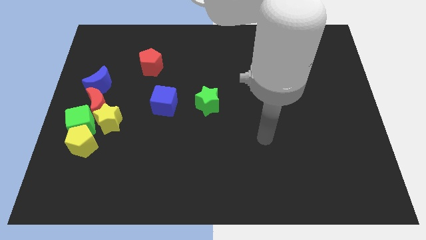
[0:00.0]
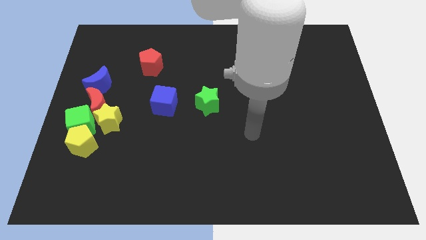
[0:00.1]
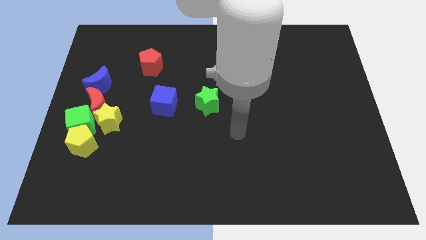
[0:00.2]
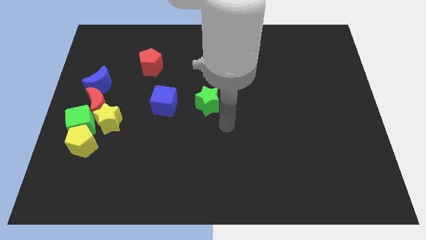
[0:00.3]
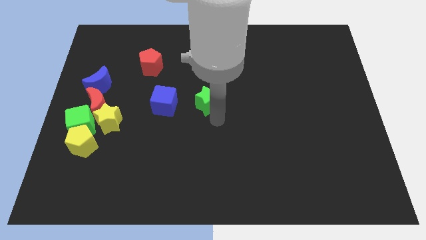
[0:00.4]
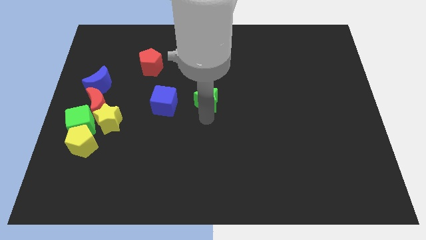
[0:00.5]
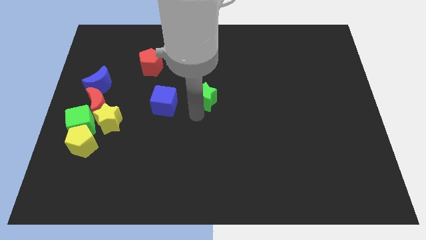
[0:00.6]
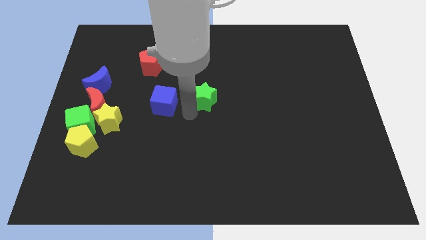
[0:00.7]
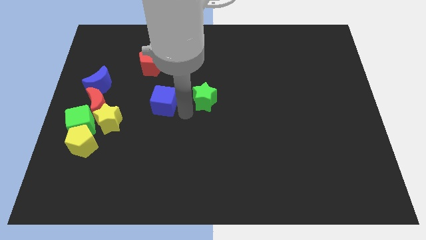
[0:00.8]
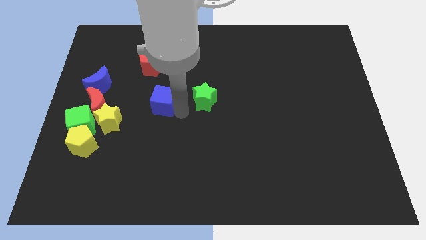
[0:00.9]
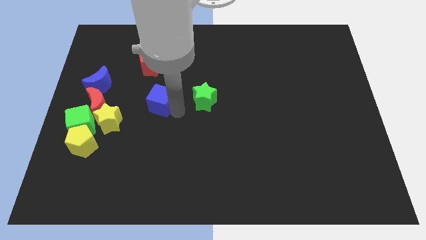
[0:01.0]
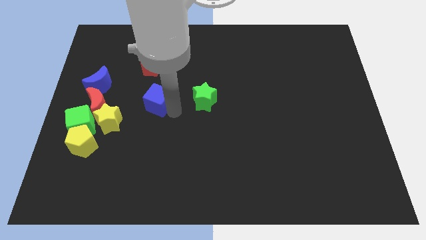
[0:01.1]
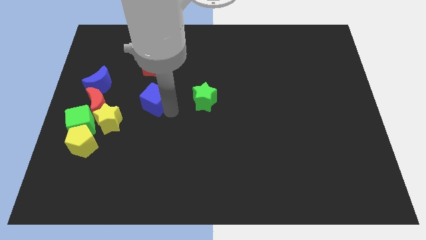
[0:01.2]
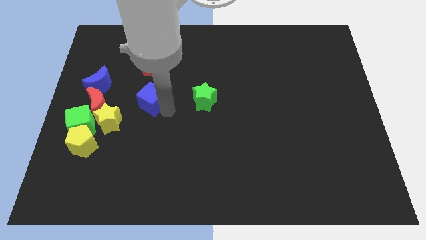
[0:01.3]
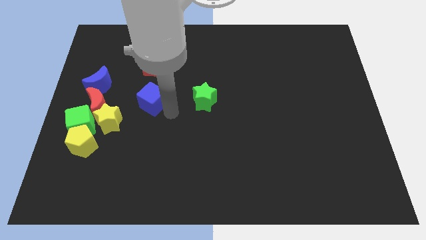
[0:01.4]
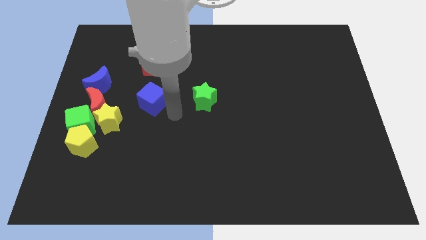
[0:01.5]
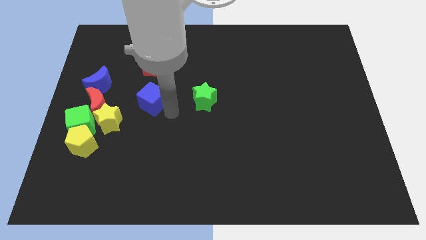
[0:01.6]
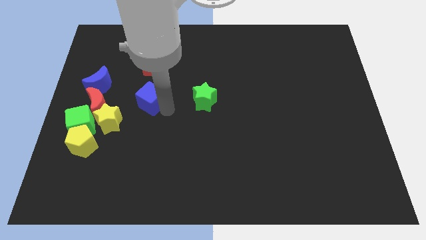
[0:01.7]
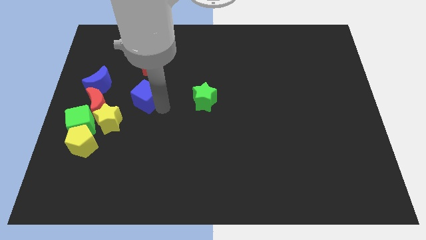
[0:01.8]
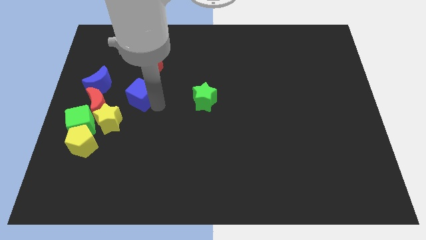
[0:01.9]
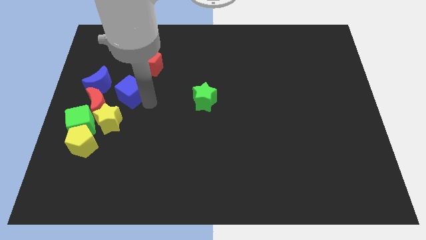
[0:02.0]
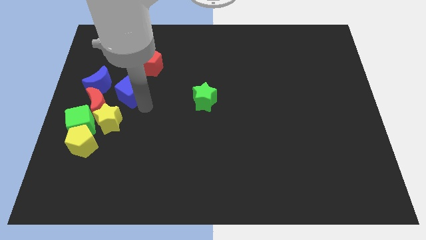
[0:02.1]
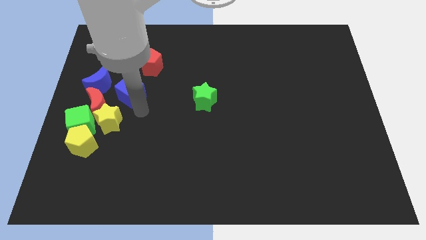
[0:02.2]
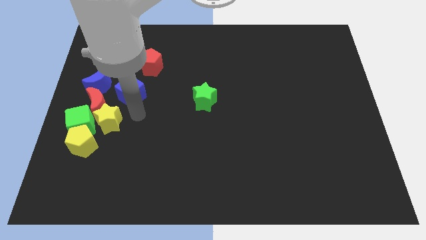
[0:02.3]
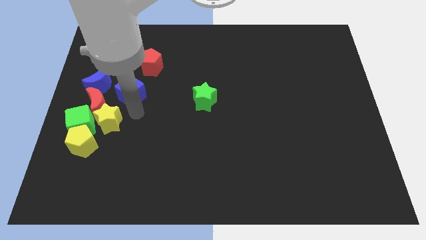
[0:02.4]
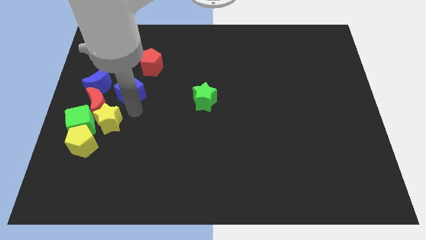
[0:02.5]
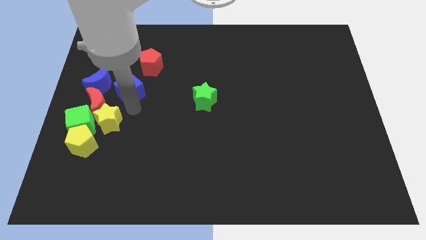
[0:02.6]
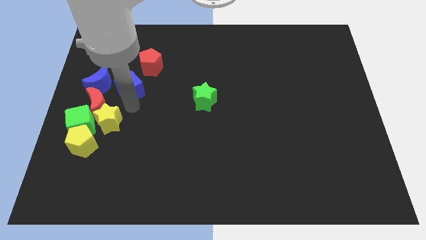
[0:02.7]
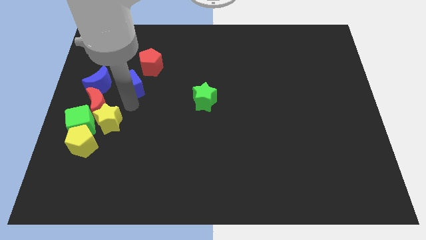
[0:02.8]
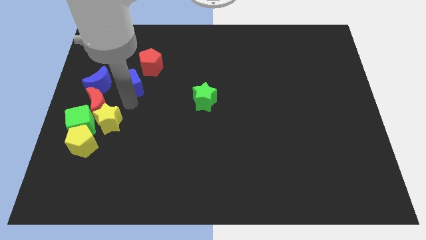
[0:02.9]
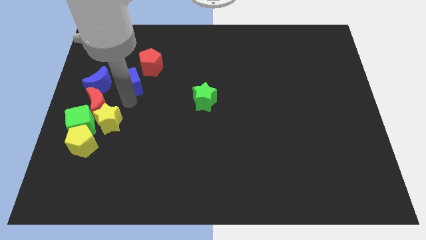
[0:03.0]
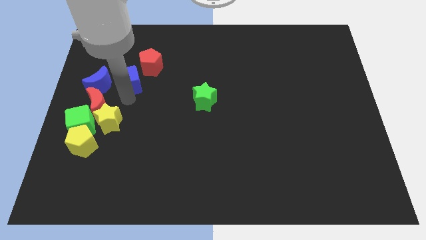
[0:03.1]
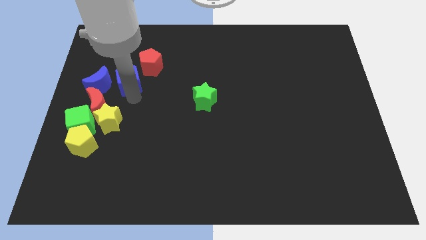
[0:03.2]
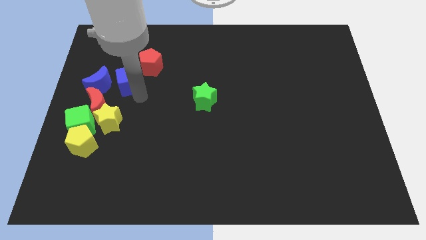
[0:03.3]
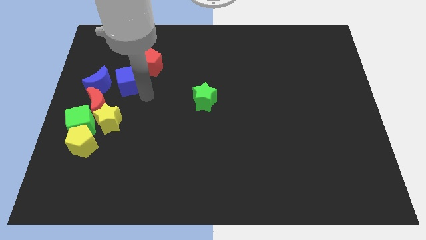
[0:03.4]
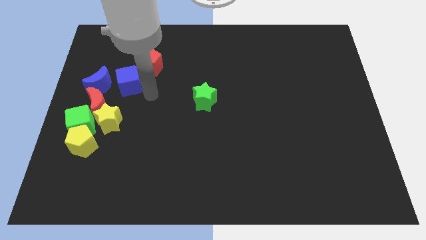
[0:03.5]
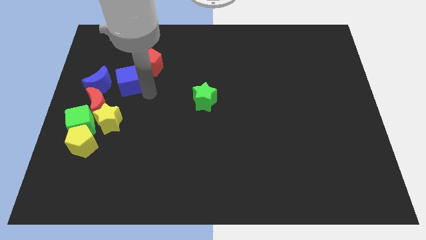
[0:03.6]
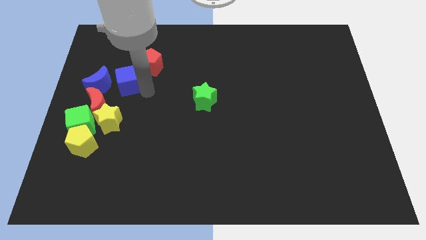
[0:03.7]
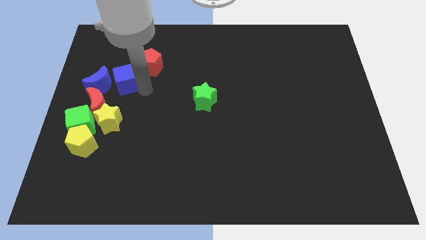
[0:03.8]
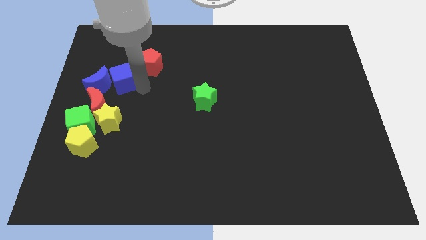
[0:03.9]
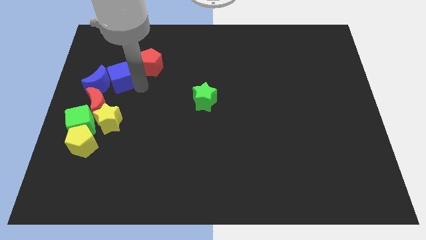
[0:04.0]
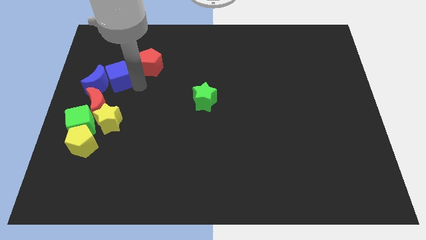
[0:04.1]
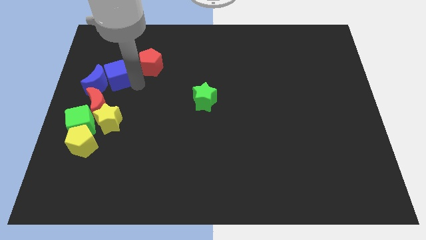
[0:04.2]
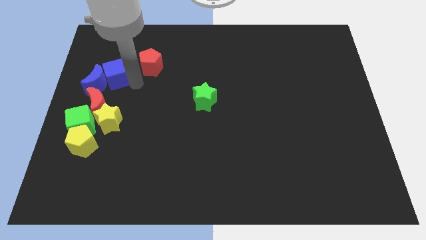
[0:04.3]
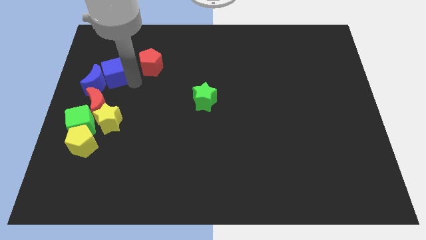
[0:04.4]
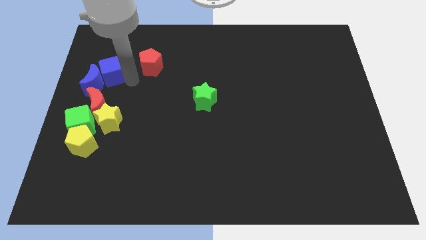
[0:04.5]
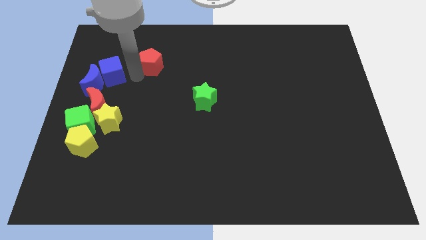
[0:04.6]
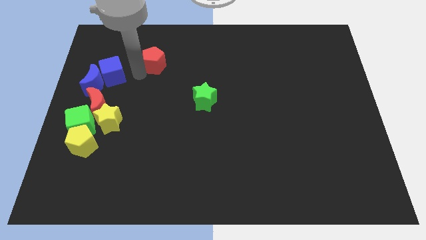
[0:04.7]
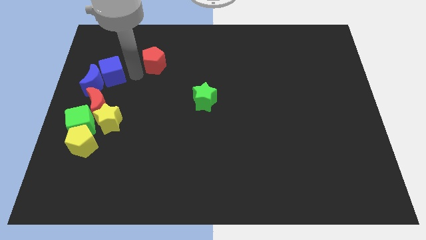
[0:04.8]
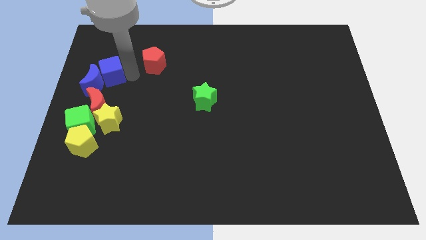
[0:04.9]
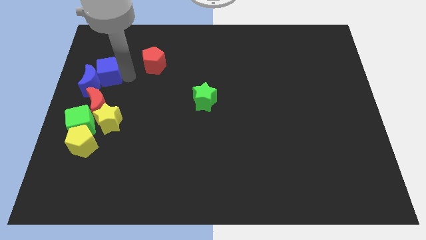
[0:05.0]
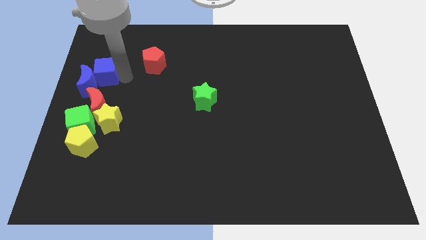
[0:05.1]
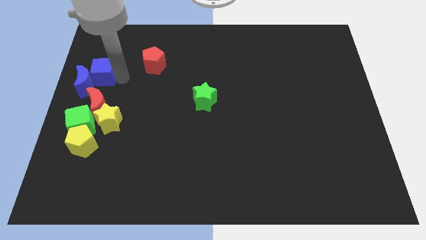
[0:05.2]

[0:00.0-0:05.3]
move the blue cube to the center left

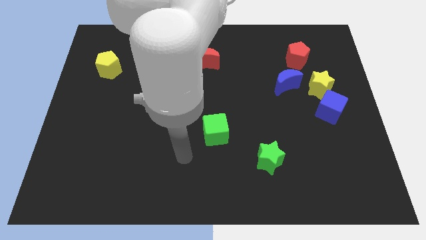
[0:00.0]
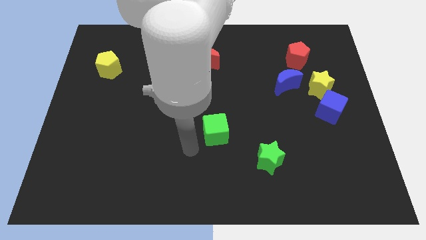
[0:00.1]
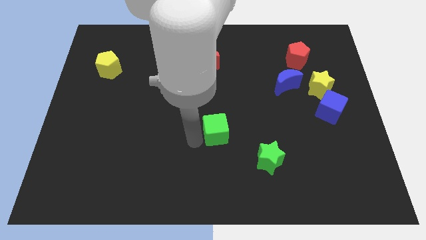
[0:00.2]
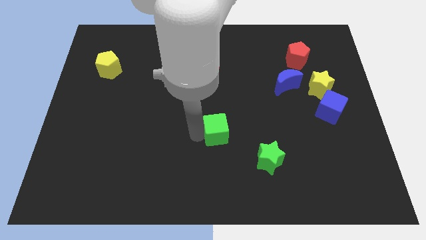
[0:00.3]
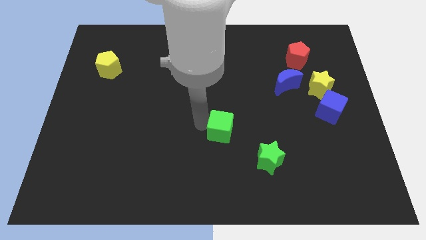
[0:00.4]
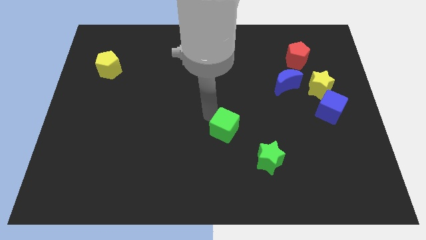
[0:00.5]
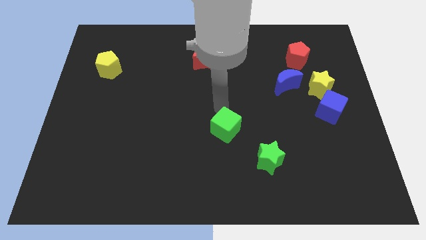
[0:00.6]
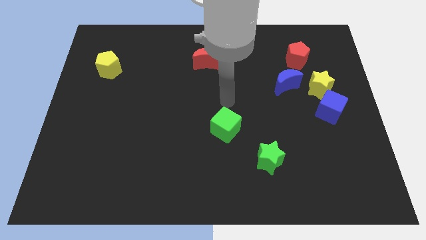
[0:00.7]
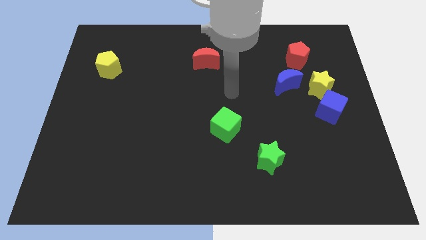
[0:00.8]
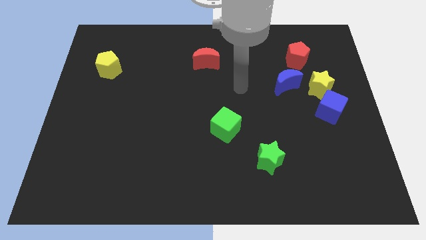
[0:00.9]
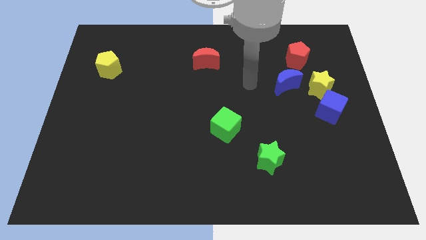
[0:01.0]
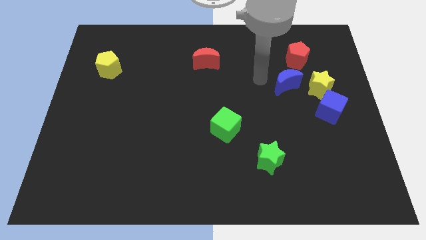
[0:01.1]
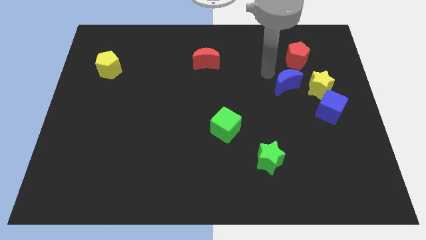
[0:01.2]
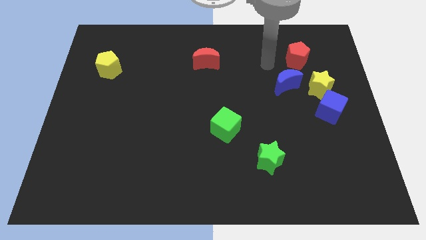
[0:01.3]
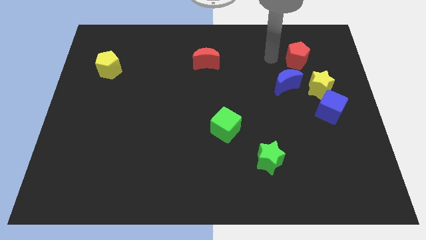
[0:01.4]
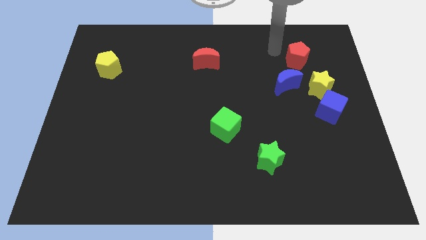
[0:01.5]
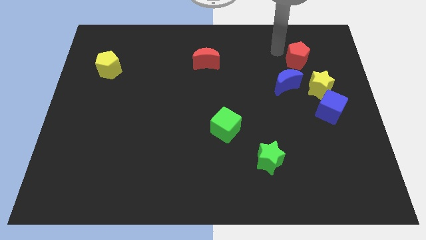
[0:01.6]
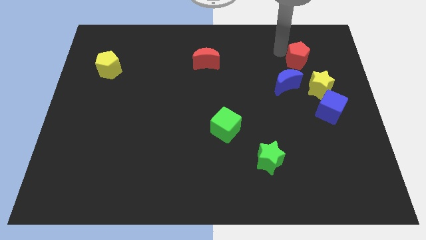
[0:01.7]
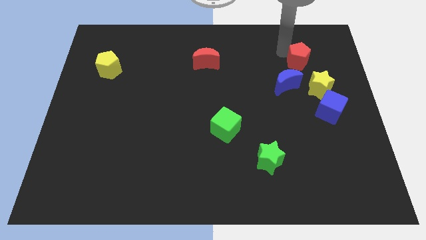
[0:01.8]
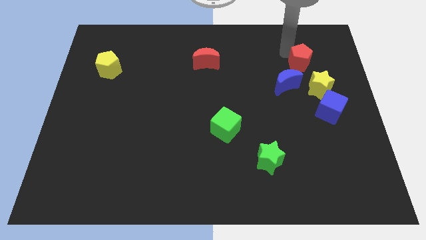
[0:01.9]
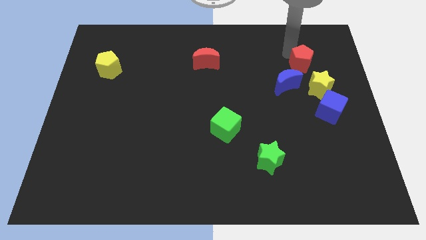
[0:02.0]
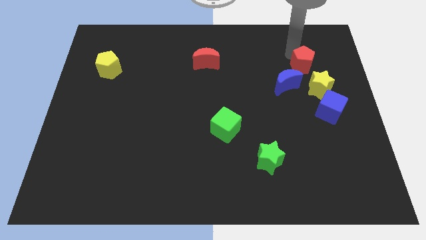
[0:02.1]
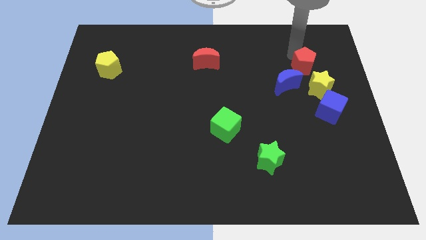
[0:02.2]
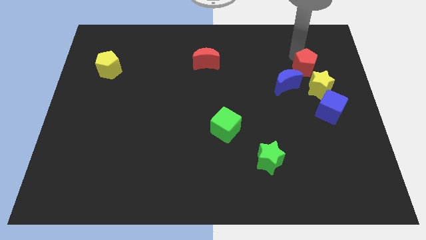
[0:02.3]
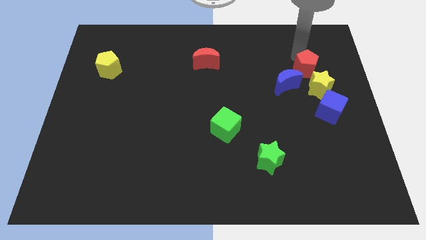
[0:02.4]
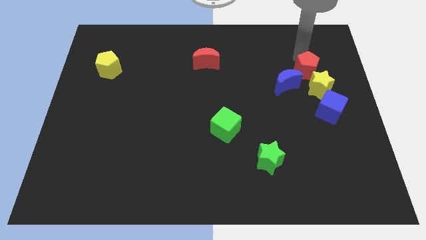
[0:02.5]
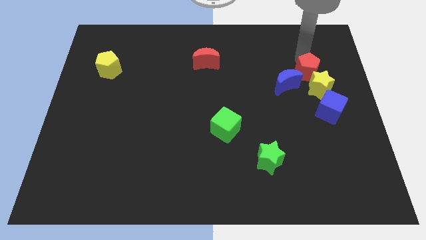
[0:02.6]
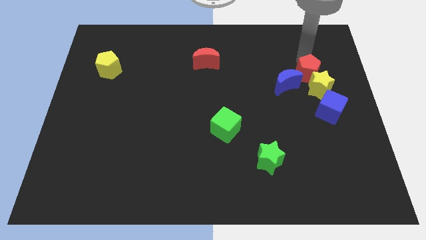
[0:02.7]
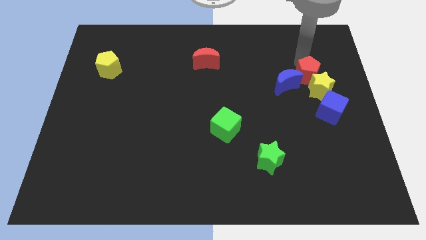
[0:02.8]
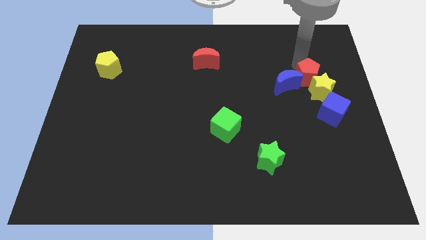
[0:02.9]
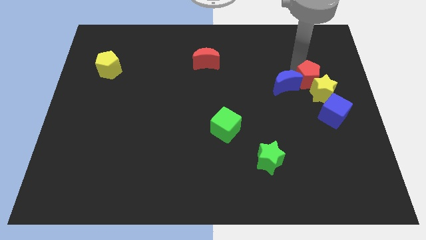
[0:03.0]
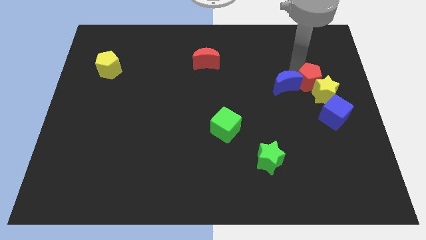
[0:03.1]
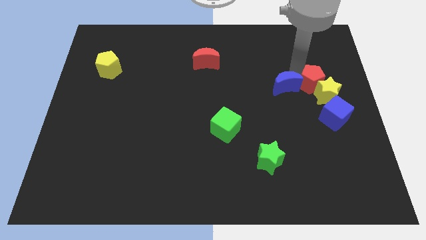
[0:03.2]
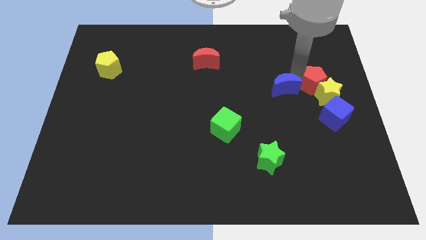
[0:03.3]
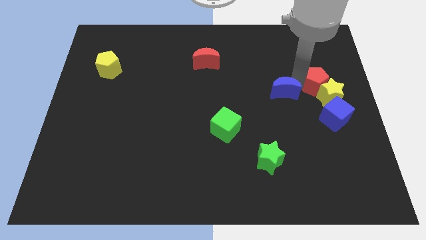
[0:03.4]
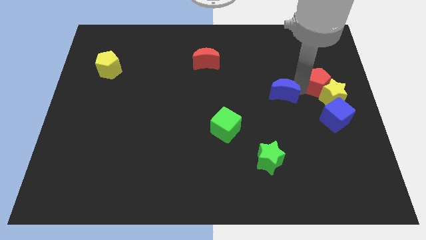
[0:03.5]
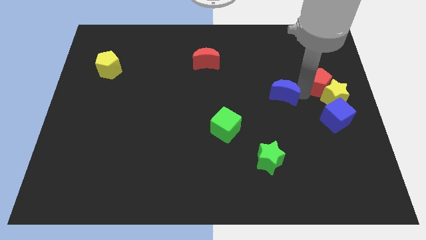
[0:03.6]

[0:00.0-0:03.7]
move the red pentagon to the right side
